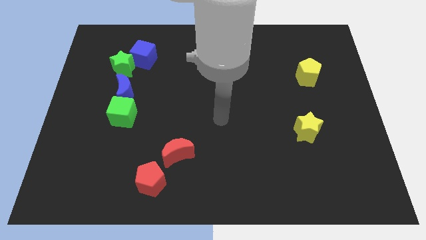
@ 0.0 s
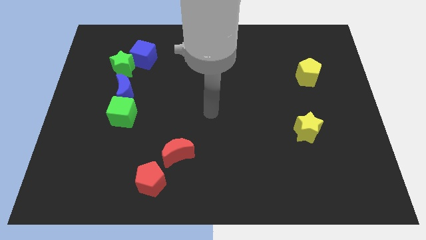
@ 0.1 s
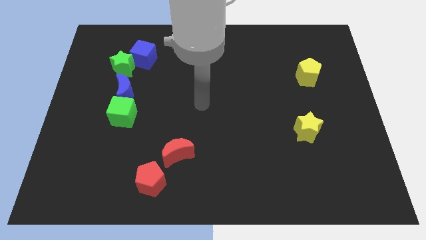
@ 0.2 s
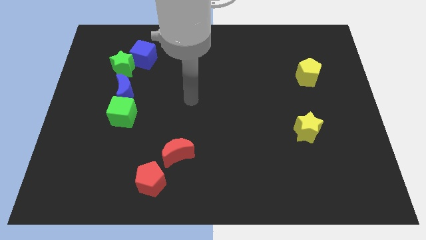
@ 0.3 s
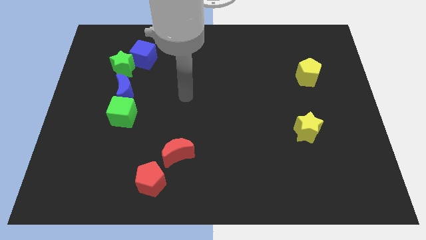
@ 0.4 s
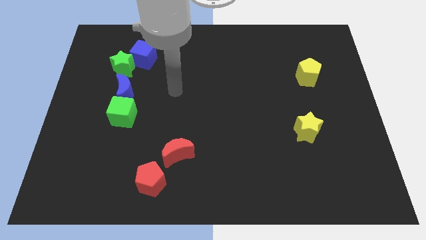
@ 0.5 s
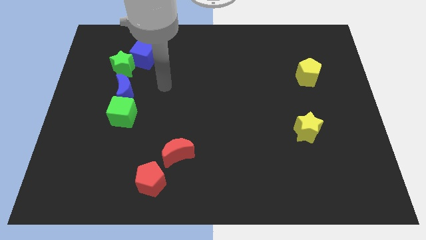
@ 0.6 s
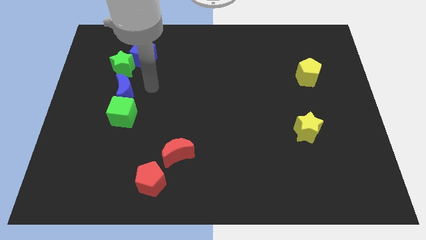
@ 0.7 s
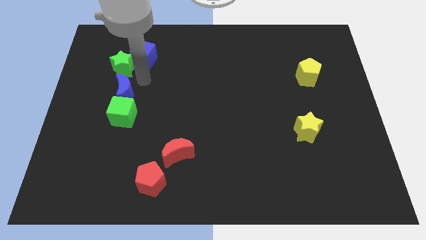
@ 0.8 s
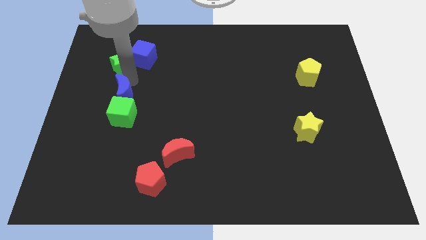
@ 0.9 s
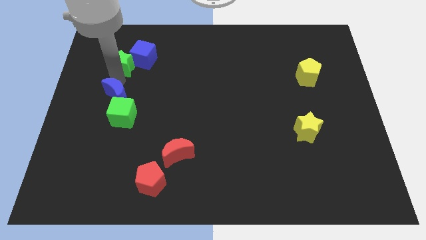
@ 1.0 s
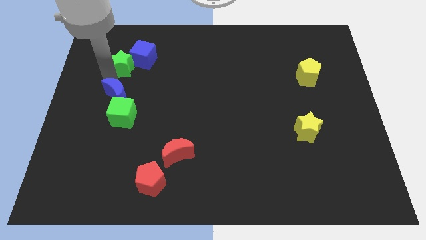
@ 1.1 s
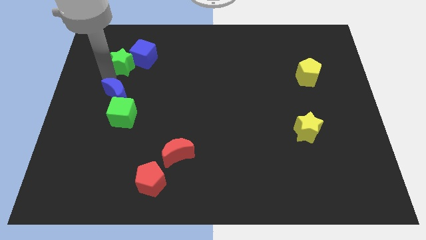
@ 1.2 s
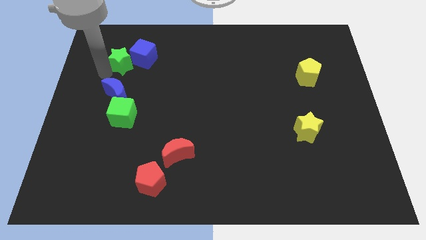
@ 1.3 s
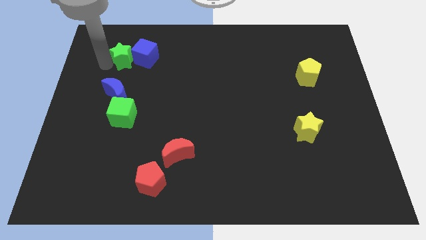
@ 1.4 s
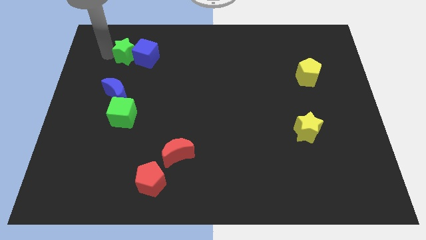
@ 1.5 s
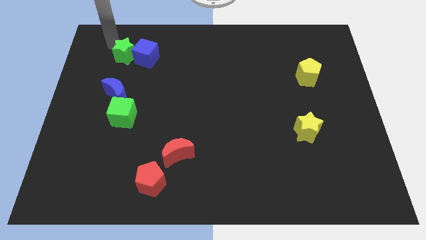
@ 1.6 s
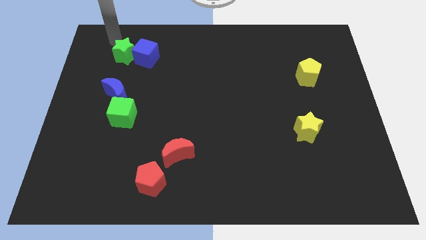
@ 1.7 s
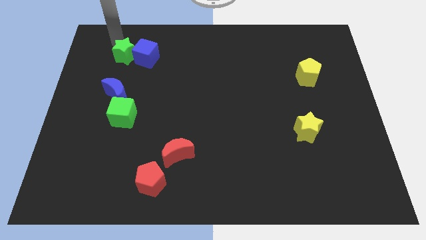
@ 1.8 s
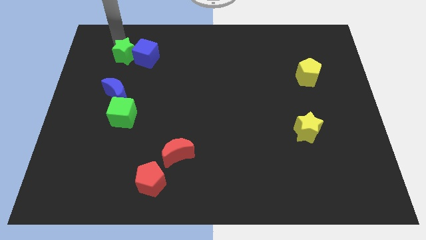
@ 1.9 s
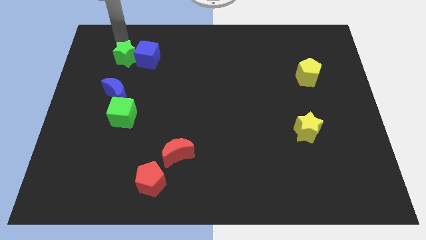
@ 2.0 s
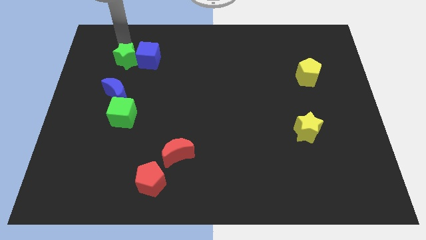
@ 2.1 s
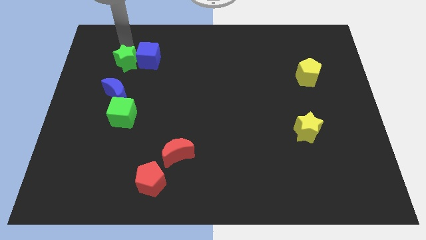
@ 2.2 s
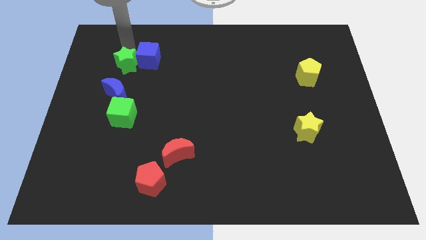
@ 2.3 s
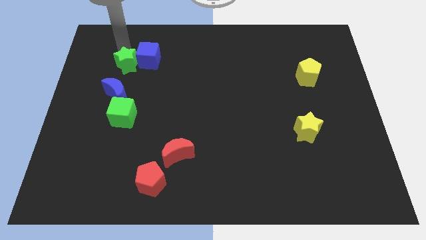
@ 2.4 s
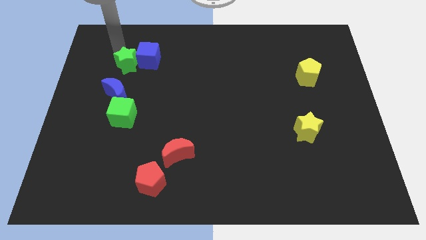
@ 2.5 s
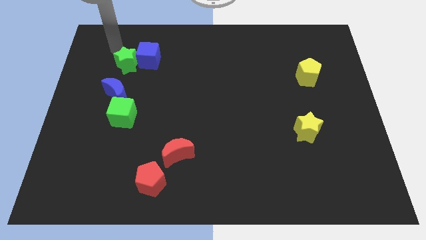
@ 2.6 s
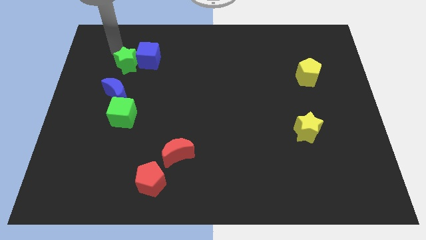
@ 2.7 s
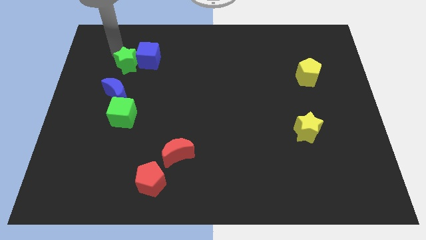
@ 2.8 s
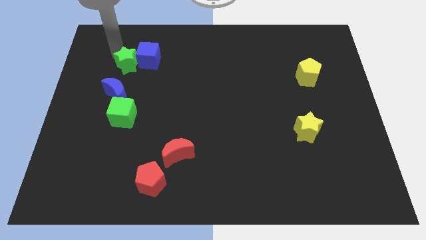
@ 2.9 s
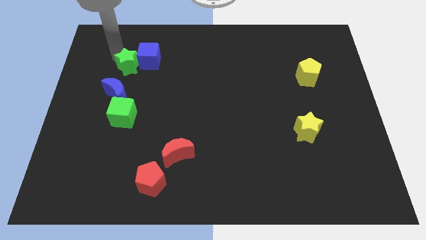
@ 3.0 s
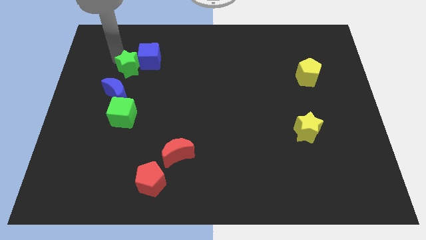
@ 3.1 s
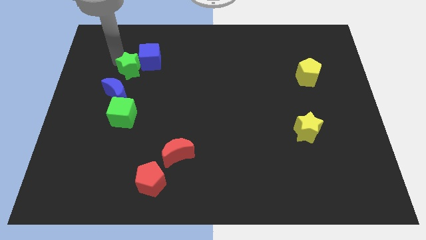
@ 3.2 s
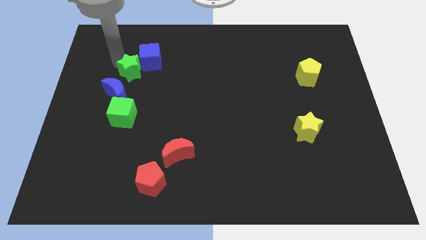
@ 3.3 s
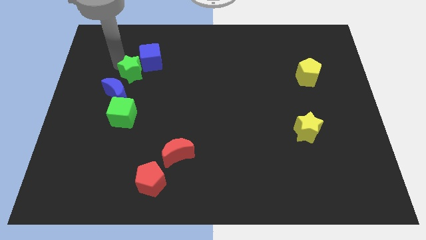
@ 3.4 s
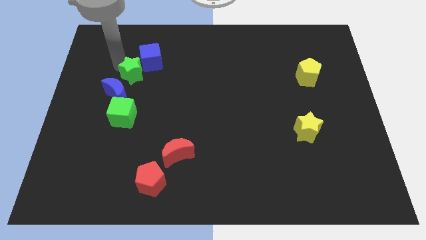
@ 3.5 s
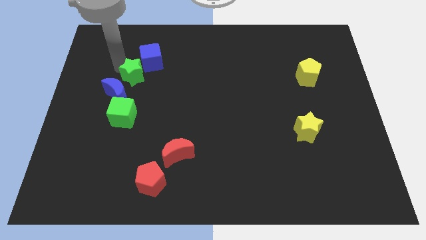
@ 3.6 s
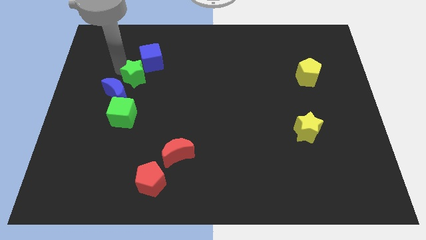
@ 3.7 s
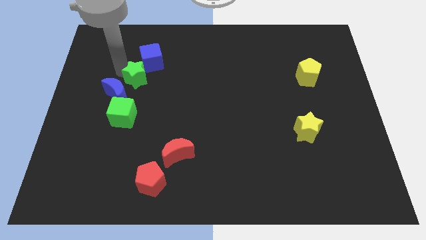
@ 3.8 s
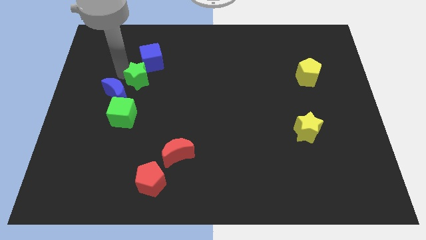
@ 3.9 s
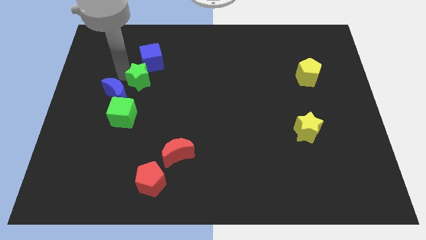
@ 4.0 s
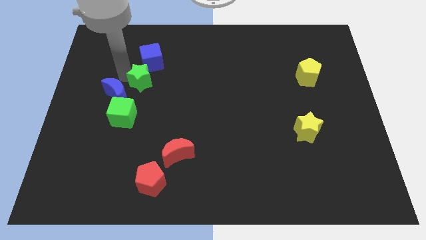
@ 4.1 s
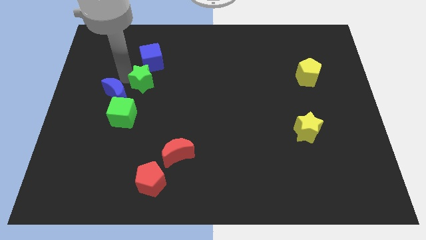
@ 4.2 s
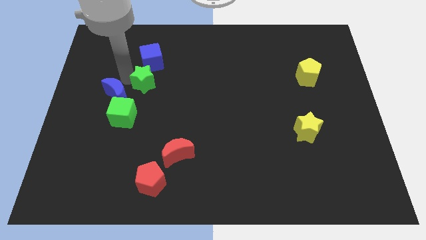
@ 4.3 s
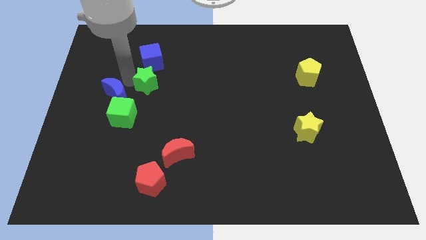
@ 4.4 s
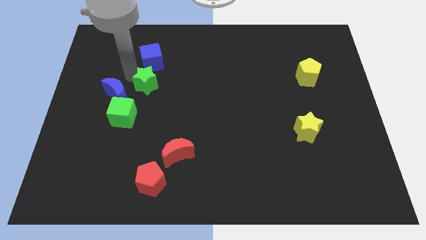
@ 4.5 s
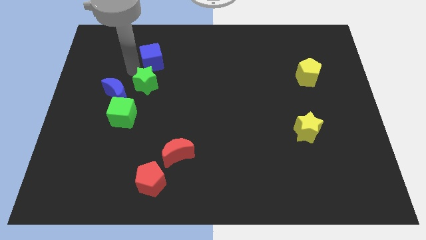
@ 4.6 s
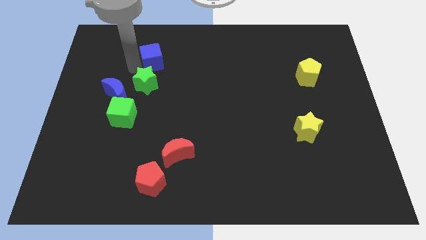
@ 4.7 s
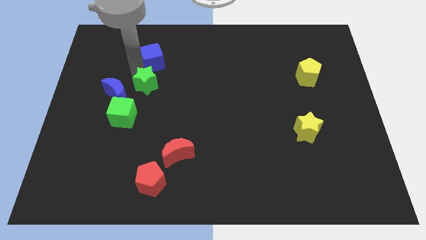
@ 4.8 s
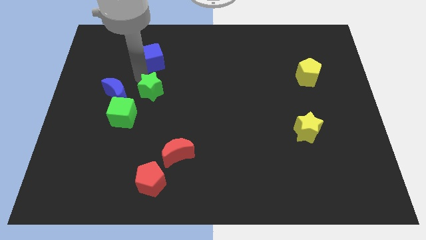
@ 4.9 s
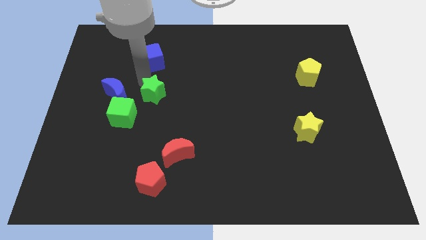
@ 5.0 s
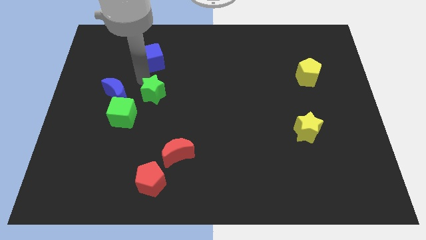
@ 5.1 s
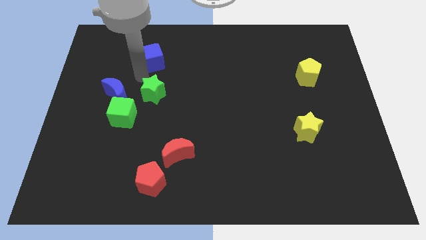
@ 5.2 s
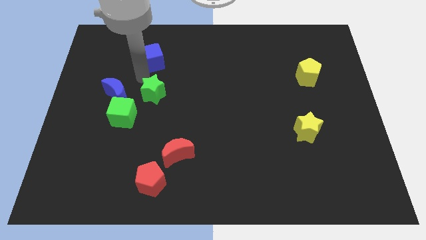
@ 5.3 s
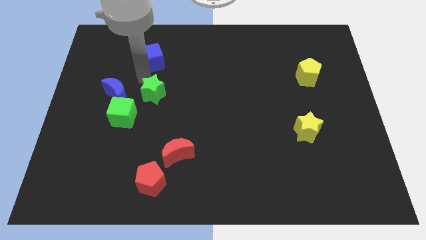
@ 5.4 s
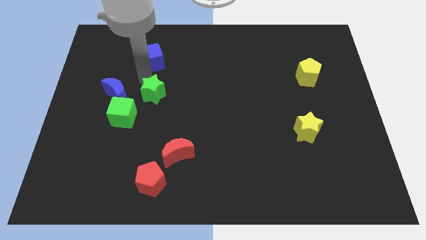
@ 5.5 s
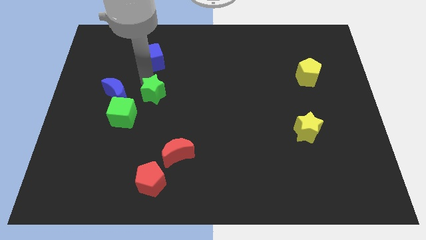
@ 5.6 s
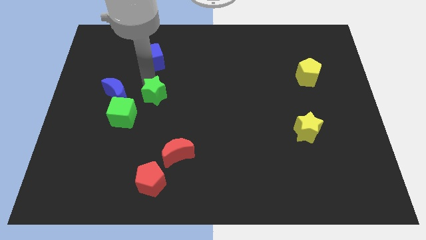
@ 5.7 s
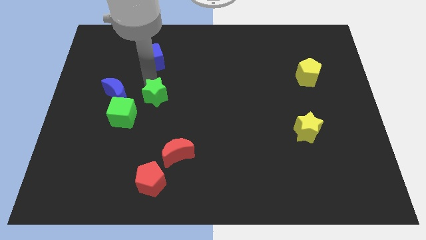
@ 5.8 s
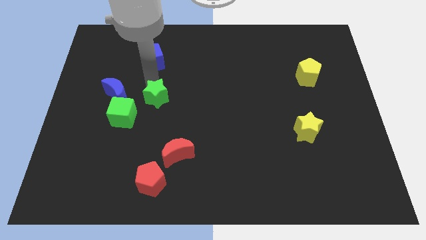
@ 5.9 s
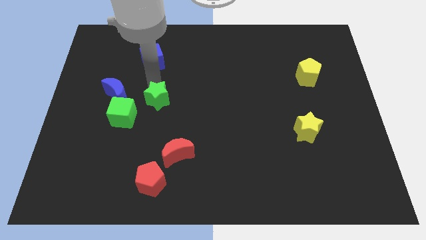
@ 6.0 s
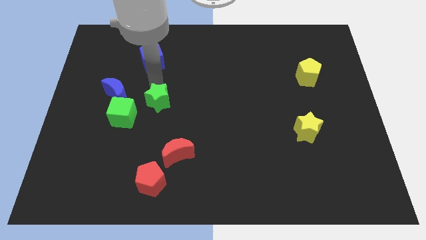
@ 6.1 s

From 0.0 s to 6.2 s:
slide the green star to the right side of the green cube

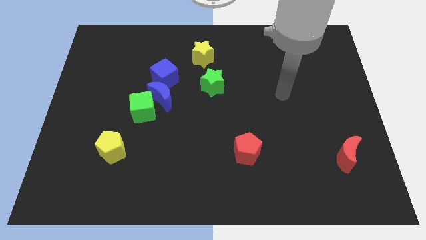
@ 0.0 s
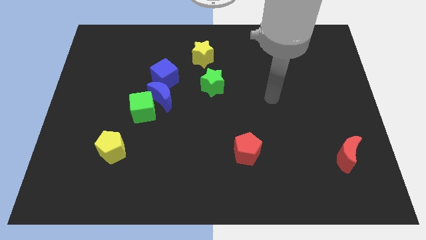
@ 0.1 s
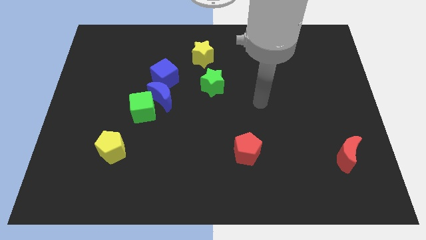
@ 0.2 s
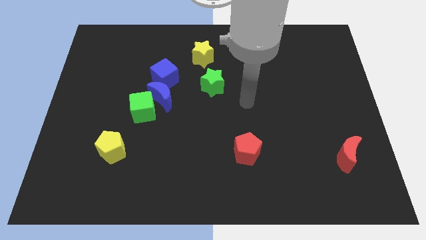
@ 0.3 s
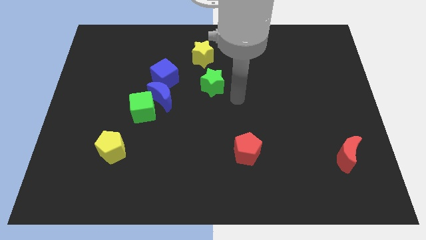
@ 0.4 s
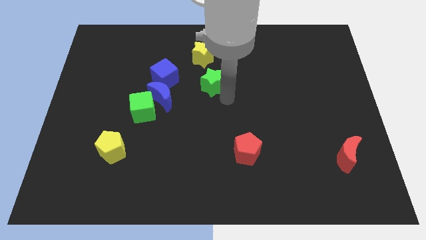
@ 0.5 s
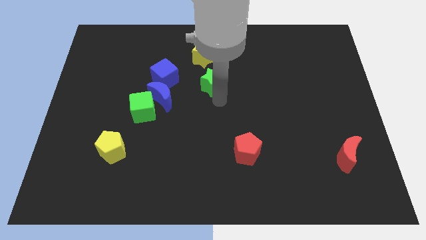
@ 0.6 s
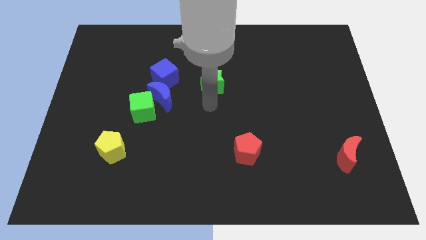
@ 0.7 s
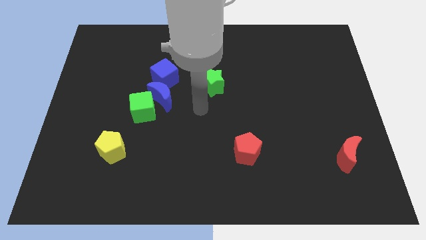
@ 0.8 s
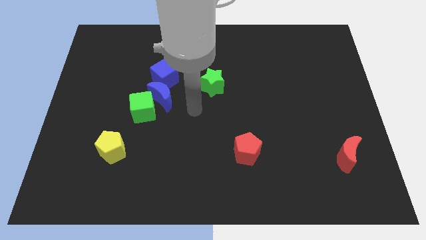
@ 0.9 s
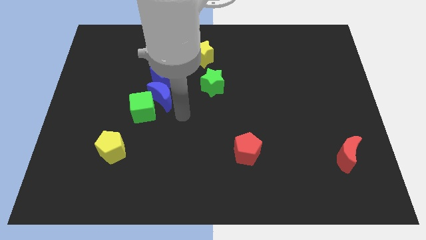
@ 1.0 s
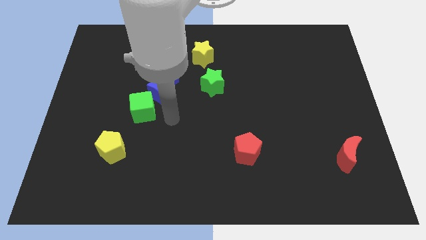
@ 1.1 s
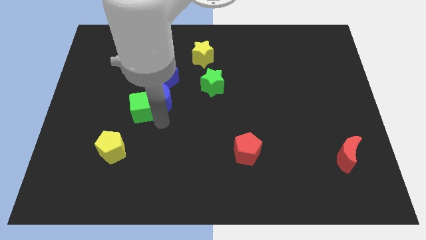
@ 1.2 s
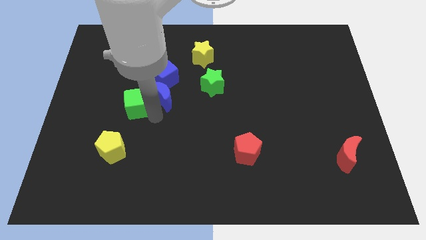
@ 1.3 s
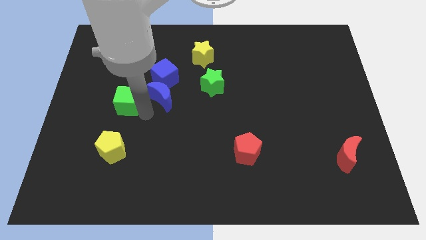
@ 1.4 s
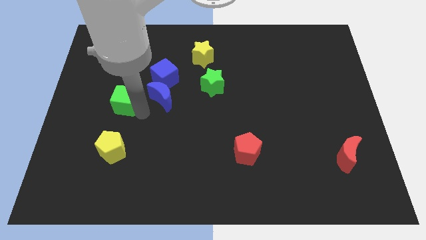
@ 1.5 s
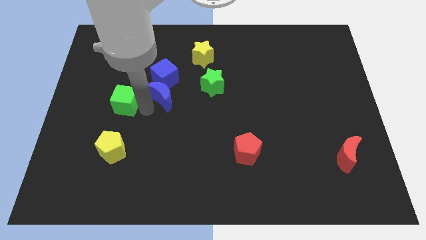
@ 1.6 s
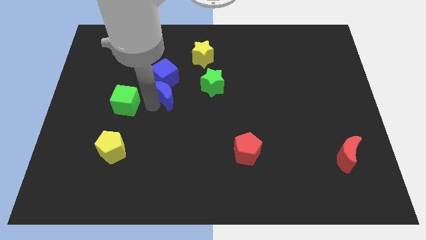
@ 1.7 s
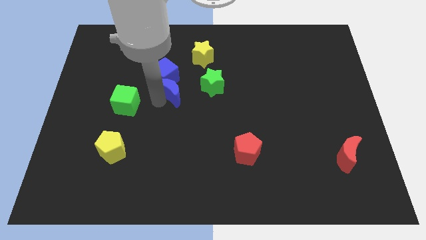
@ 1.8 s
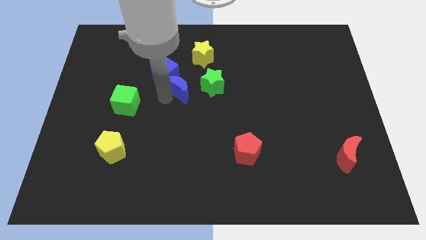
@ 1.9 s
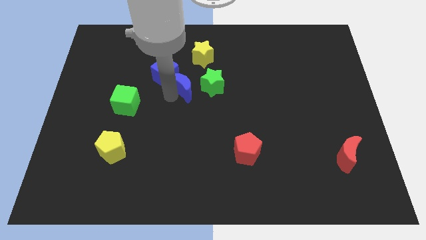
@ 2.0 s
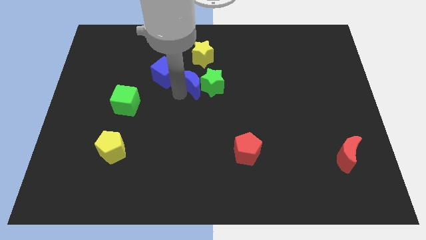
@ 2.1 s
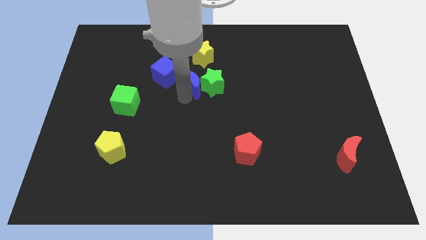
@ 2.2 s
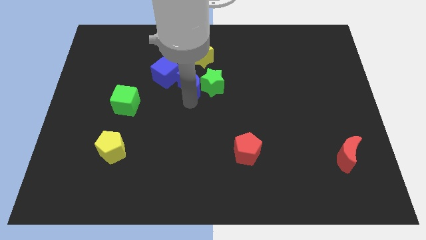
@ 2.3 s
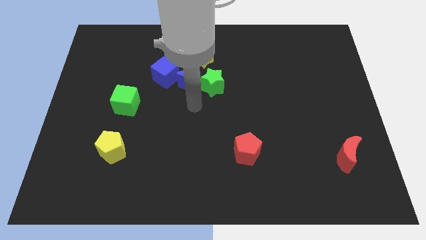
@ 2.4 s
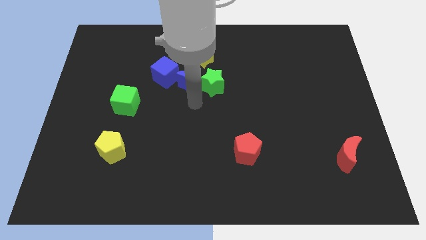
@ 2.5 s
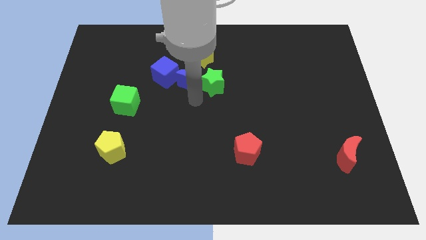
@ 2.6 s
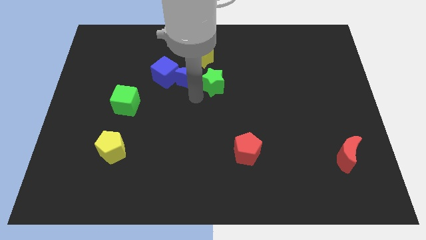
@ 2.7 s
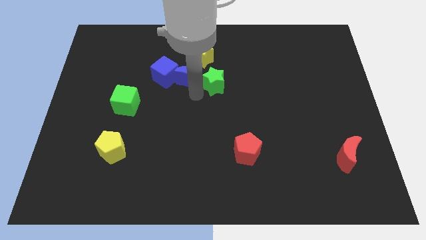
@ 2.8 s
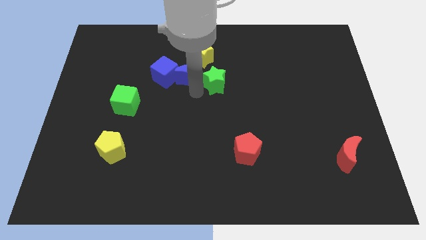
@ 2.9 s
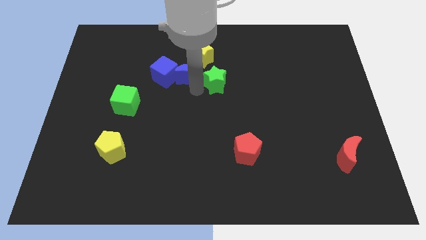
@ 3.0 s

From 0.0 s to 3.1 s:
push the blue moon to the top right side of the blue cube
